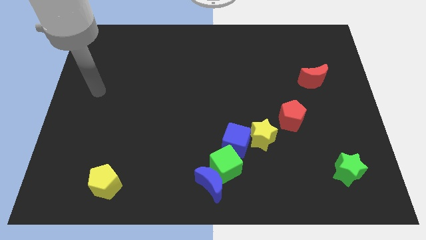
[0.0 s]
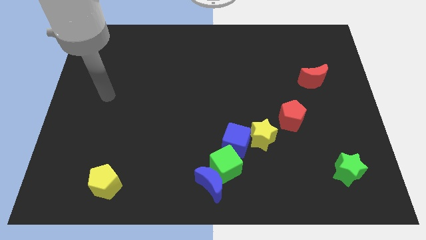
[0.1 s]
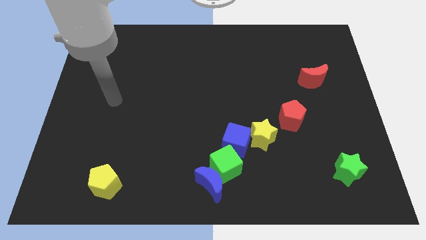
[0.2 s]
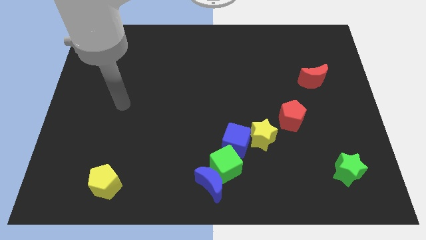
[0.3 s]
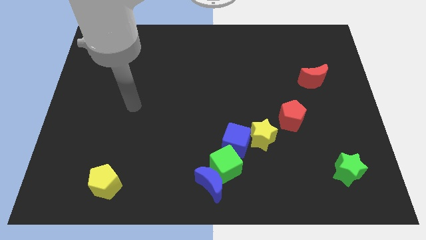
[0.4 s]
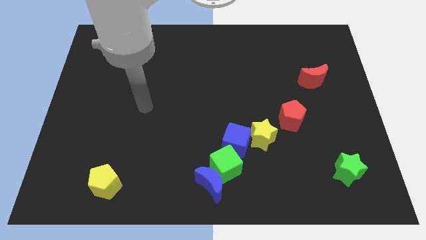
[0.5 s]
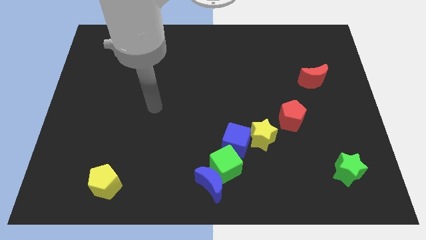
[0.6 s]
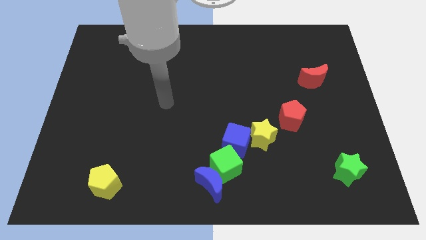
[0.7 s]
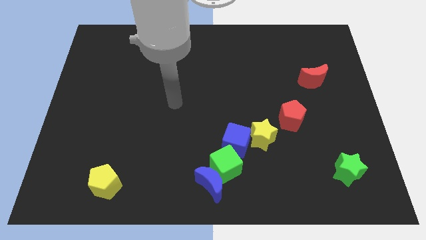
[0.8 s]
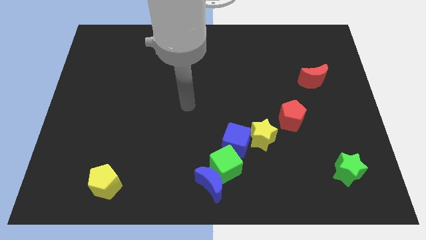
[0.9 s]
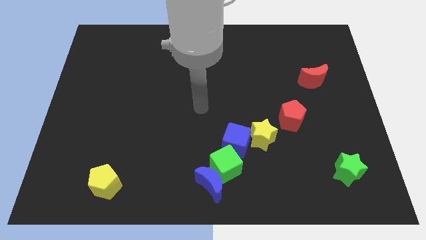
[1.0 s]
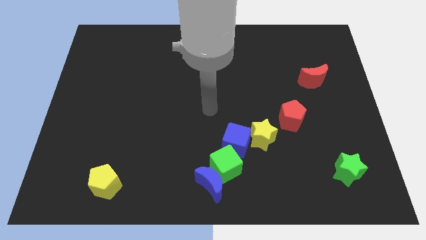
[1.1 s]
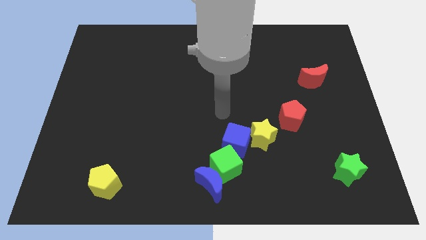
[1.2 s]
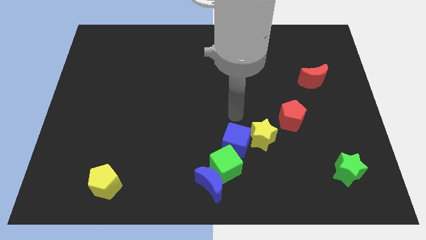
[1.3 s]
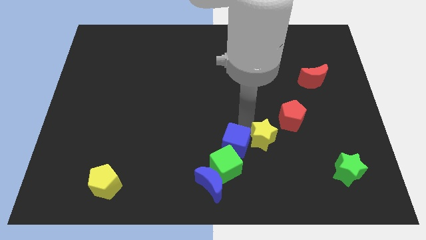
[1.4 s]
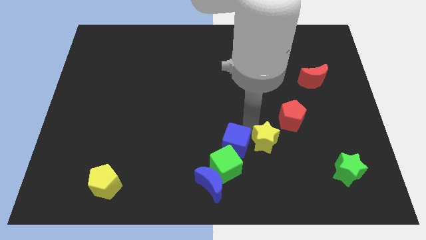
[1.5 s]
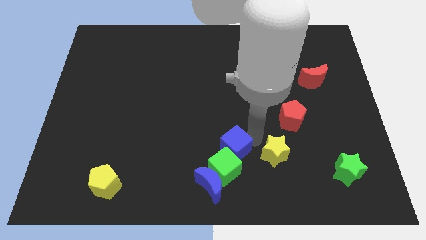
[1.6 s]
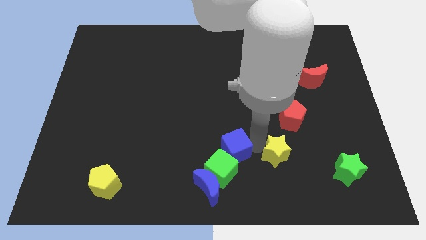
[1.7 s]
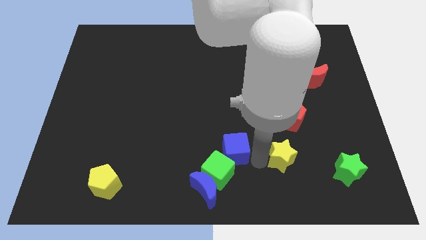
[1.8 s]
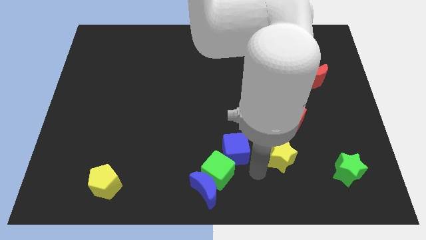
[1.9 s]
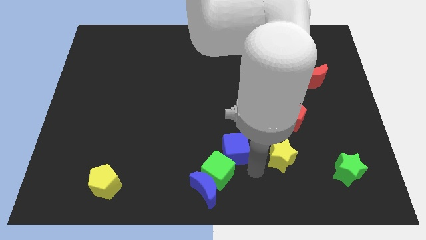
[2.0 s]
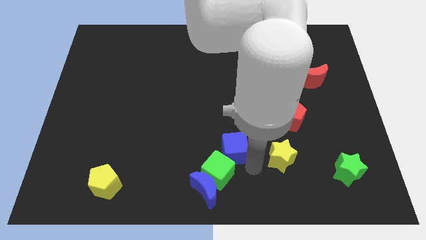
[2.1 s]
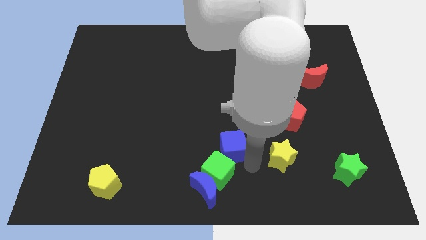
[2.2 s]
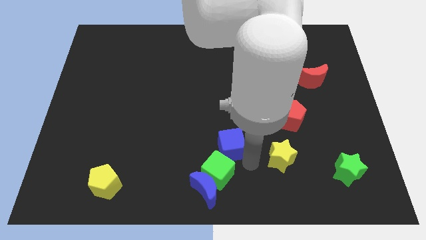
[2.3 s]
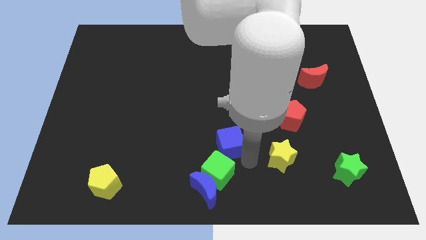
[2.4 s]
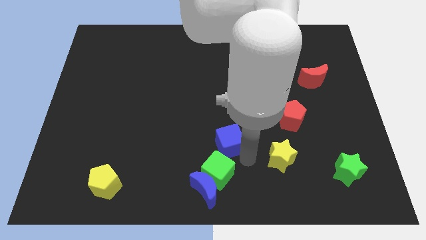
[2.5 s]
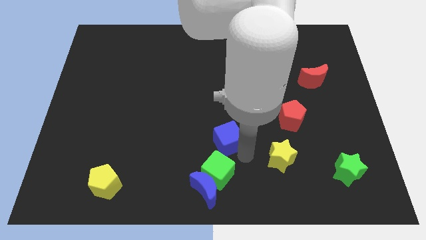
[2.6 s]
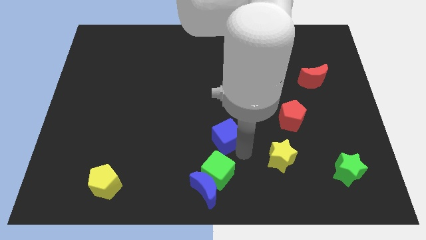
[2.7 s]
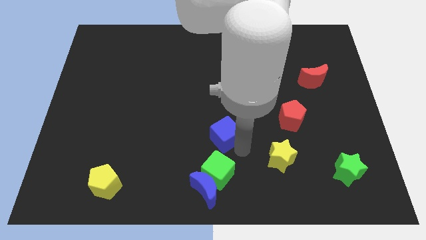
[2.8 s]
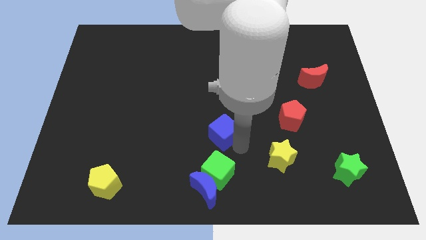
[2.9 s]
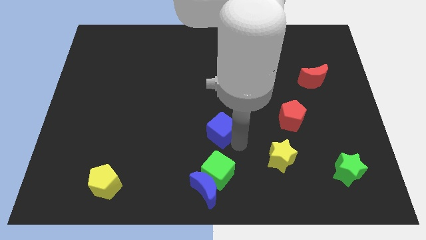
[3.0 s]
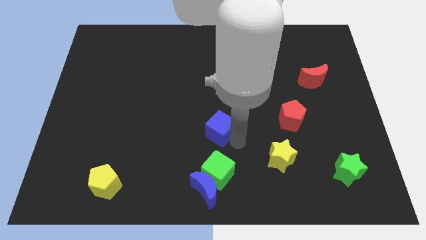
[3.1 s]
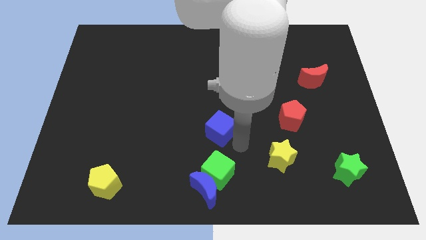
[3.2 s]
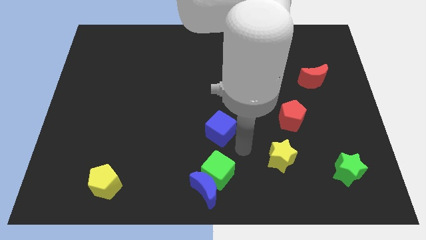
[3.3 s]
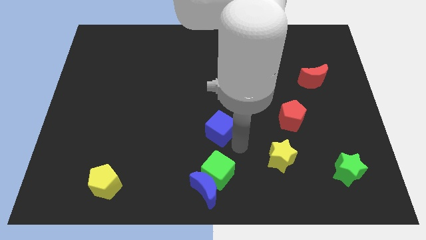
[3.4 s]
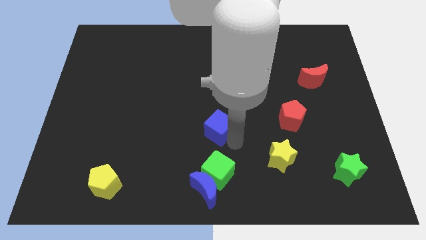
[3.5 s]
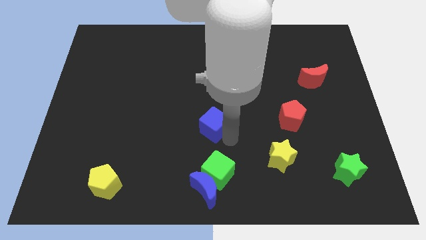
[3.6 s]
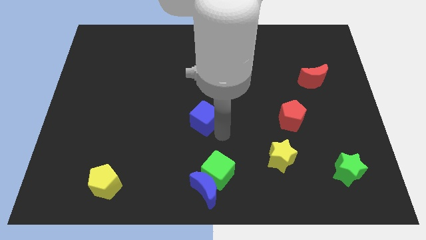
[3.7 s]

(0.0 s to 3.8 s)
slide the blue cube somewhat up and left

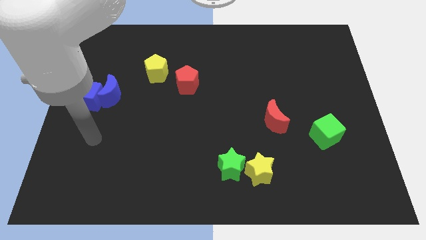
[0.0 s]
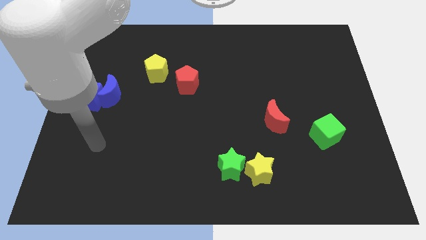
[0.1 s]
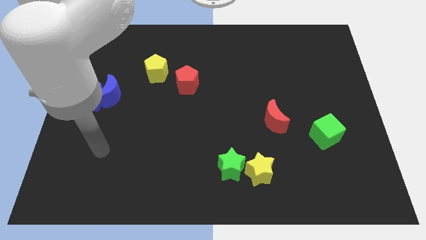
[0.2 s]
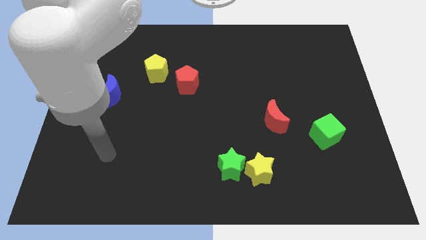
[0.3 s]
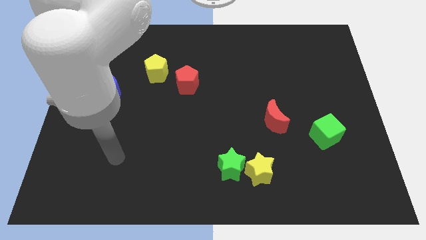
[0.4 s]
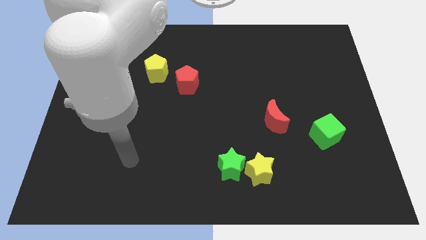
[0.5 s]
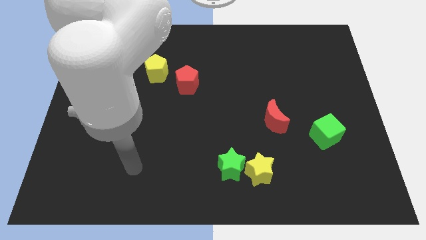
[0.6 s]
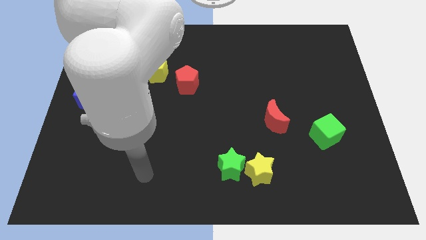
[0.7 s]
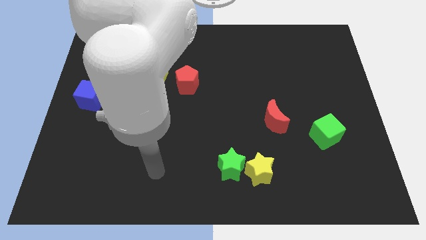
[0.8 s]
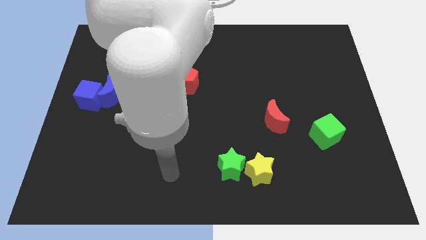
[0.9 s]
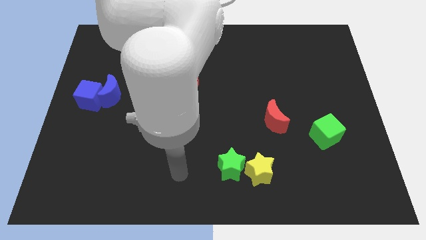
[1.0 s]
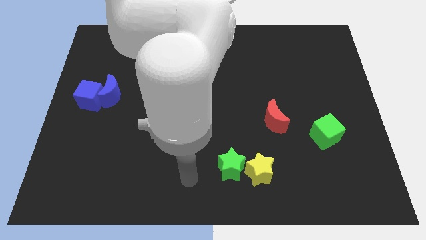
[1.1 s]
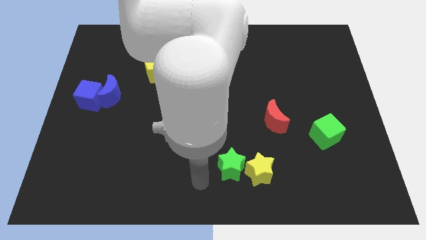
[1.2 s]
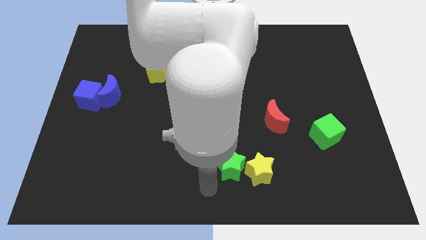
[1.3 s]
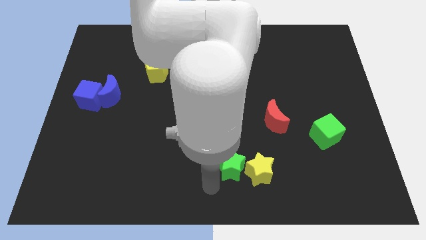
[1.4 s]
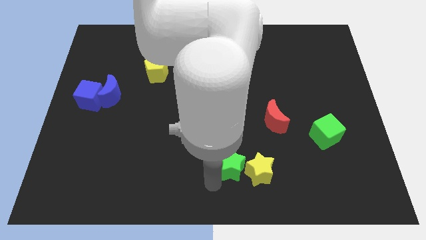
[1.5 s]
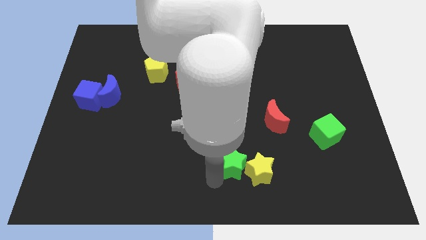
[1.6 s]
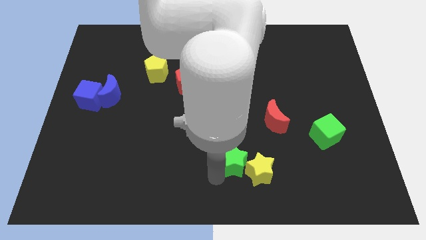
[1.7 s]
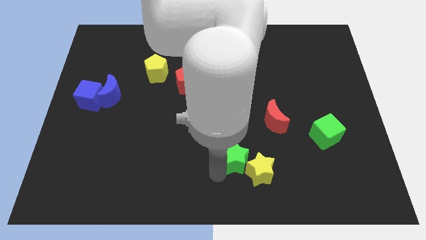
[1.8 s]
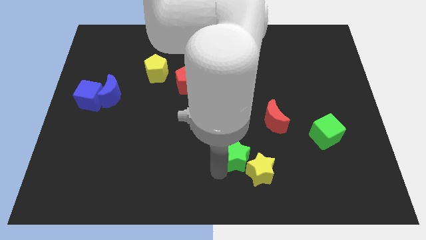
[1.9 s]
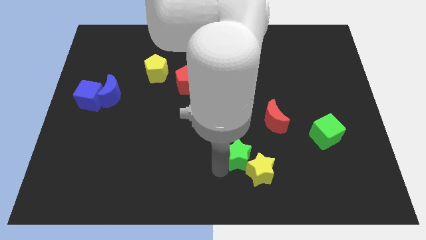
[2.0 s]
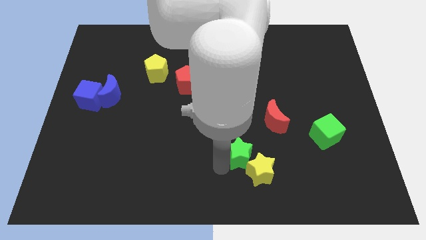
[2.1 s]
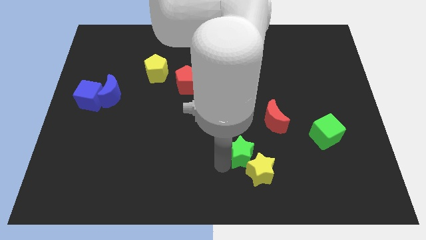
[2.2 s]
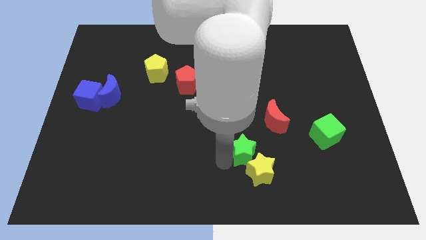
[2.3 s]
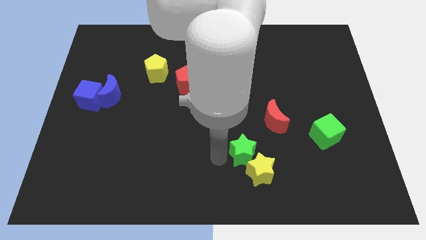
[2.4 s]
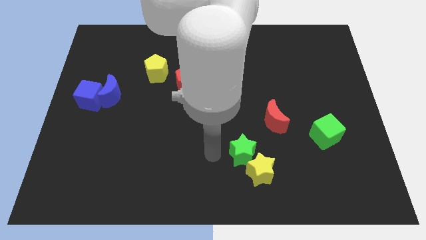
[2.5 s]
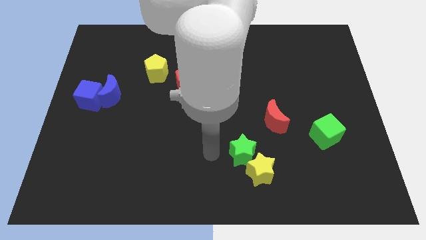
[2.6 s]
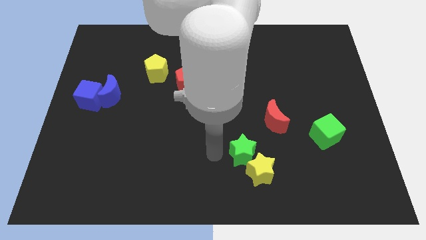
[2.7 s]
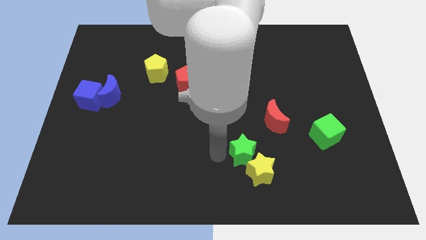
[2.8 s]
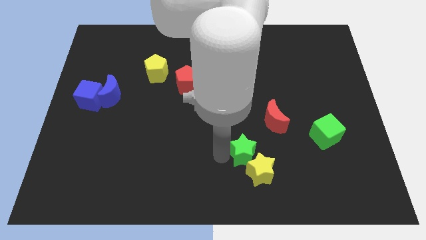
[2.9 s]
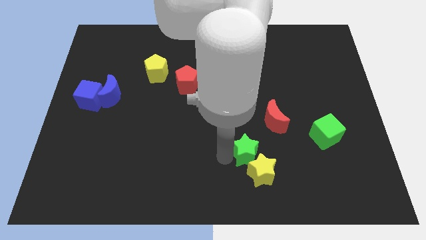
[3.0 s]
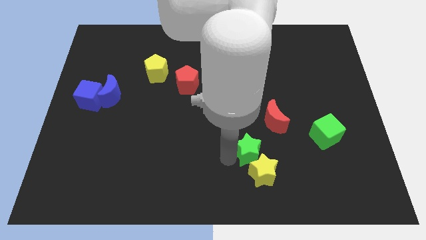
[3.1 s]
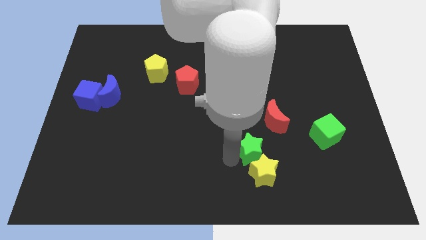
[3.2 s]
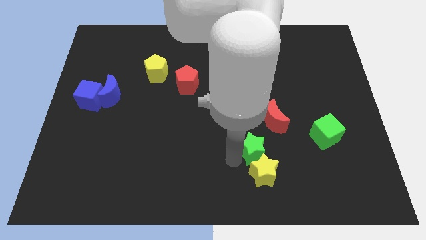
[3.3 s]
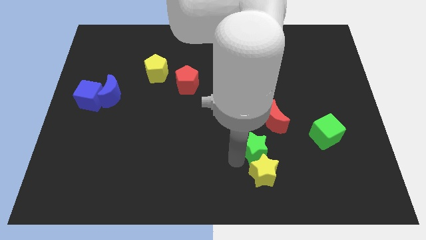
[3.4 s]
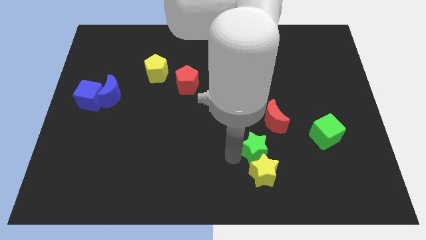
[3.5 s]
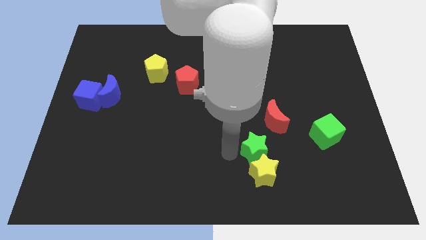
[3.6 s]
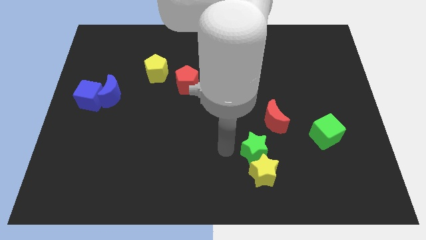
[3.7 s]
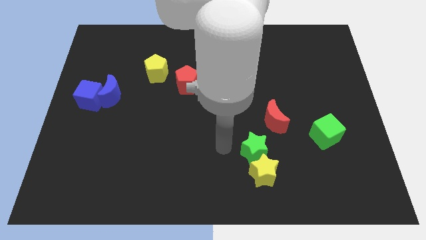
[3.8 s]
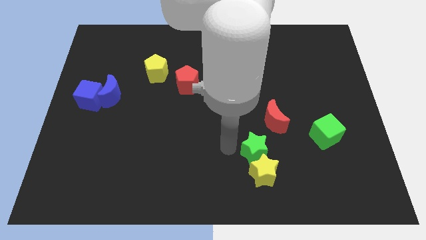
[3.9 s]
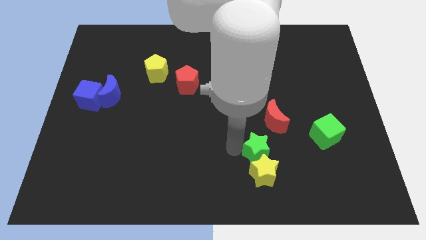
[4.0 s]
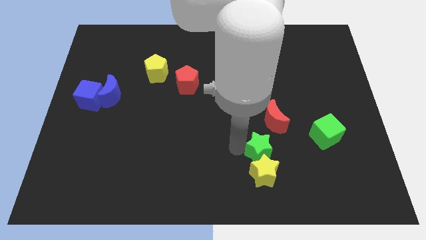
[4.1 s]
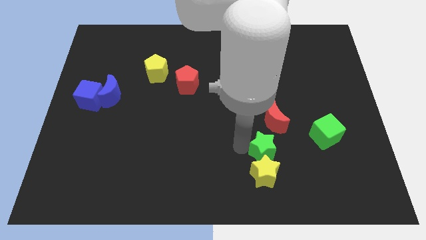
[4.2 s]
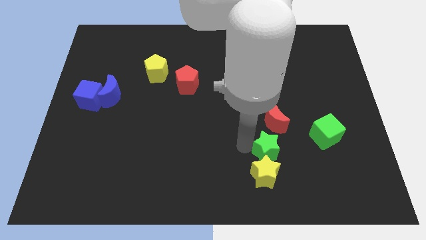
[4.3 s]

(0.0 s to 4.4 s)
slide the green star right slightly
